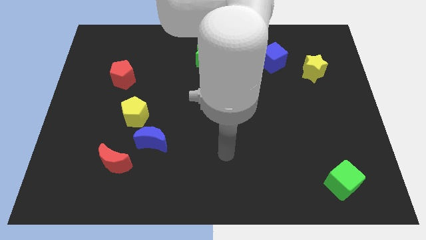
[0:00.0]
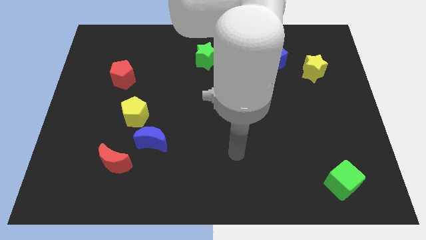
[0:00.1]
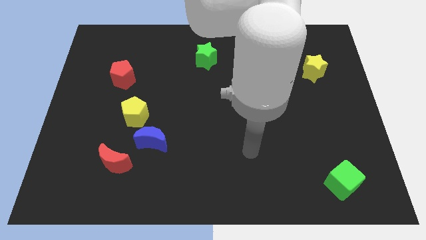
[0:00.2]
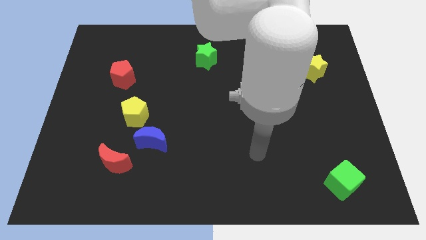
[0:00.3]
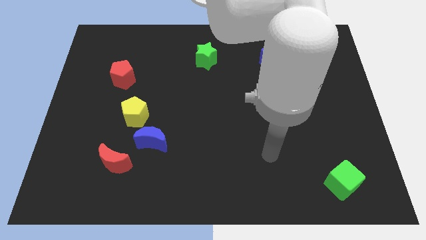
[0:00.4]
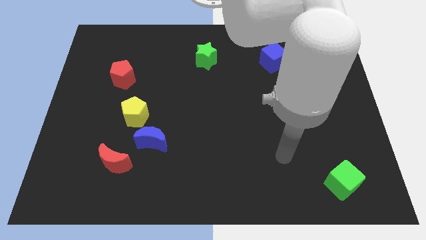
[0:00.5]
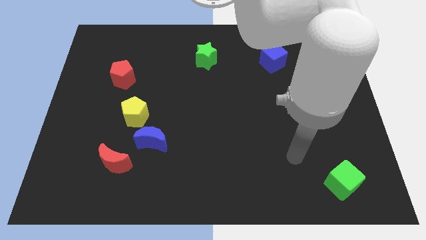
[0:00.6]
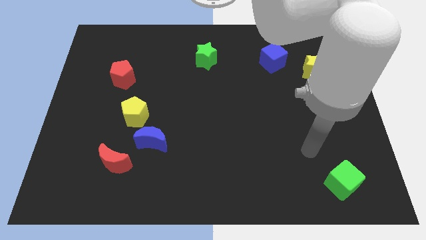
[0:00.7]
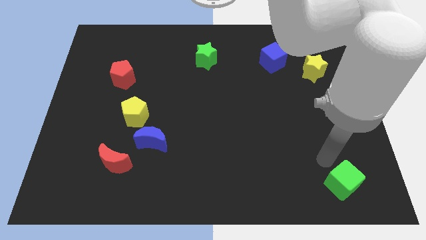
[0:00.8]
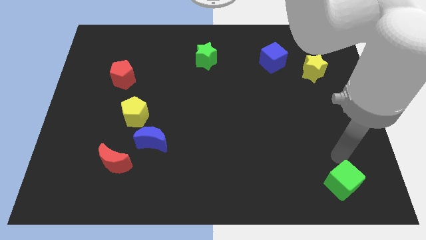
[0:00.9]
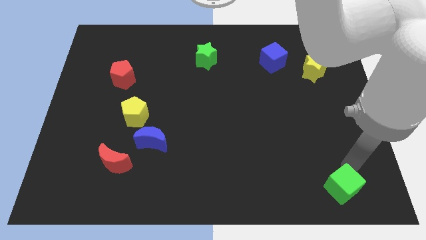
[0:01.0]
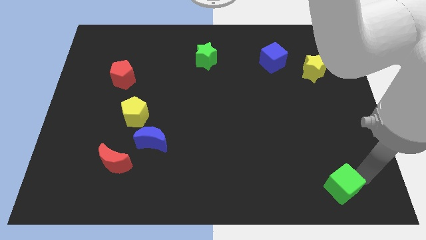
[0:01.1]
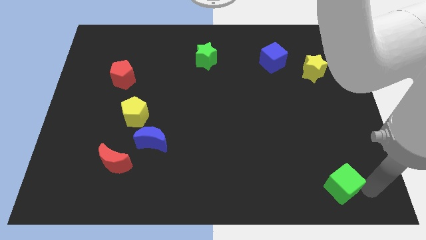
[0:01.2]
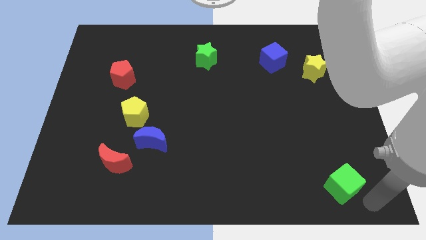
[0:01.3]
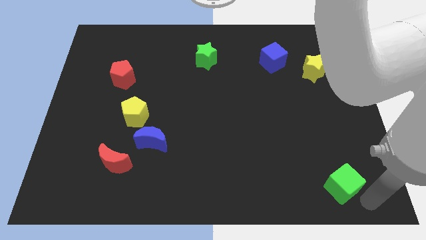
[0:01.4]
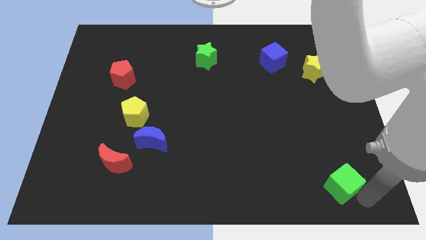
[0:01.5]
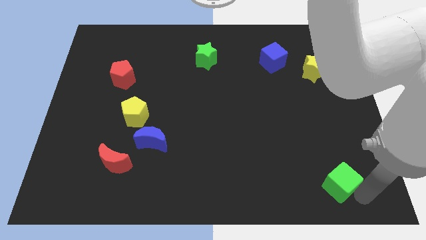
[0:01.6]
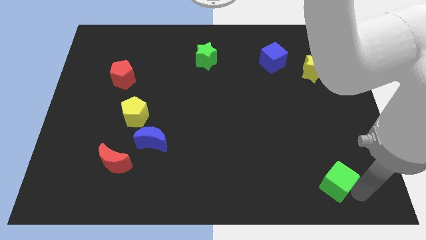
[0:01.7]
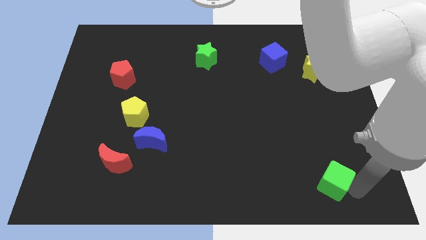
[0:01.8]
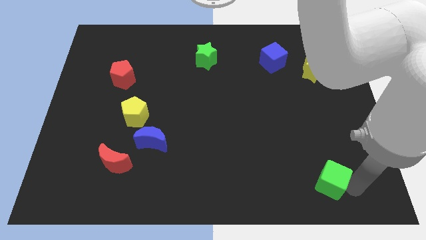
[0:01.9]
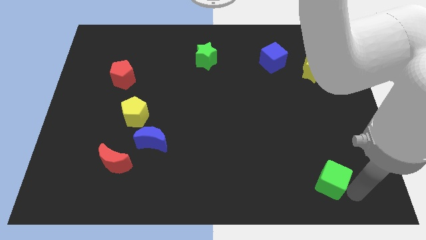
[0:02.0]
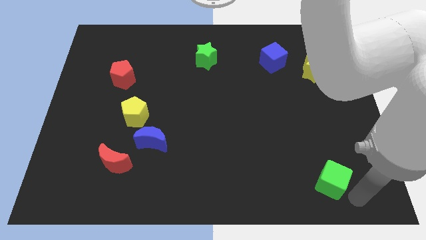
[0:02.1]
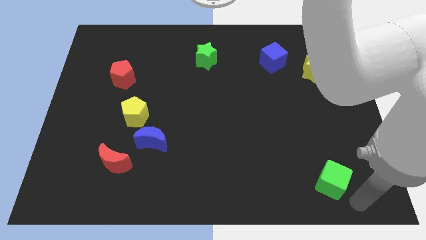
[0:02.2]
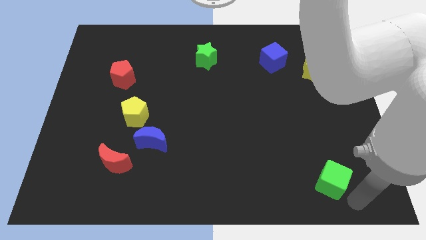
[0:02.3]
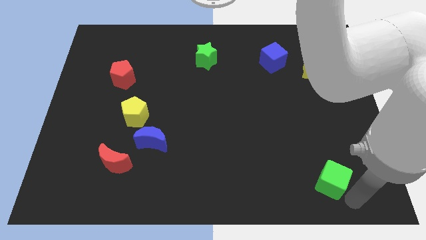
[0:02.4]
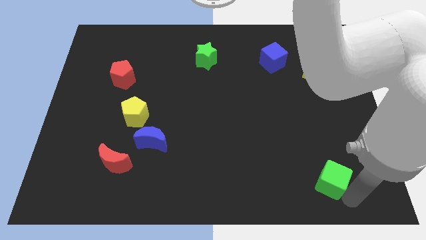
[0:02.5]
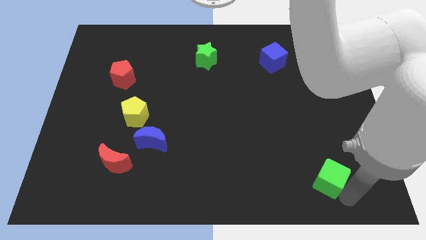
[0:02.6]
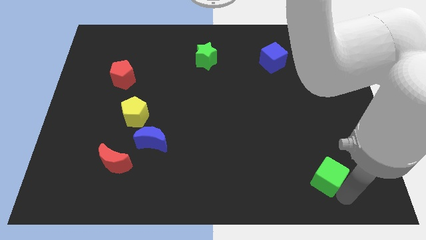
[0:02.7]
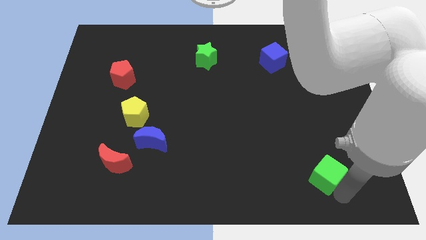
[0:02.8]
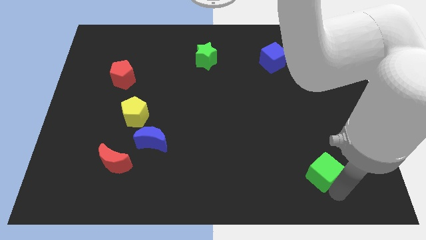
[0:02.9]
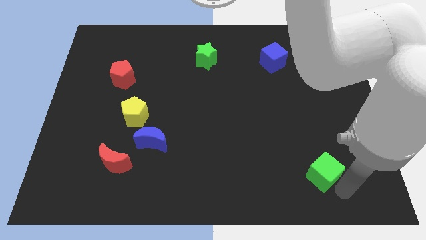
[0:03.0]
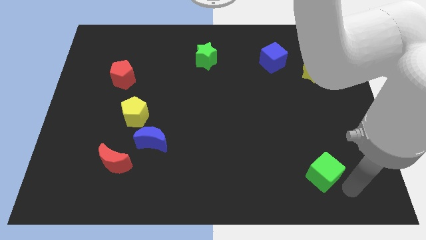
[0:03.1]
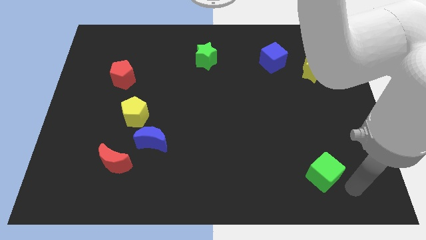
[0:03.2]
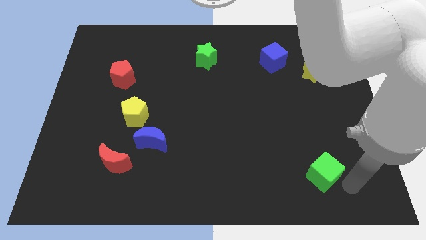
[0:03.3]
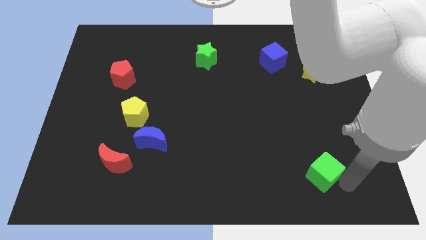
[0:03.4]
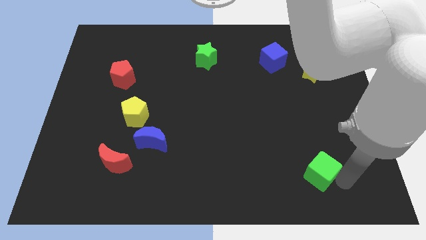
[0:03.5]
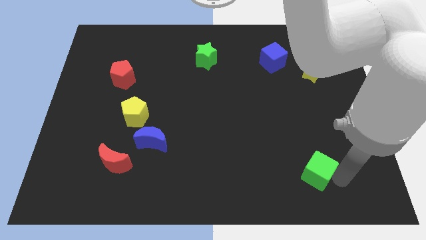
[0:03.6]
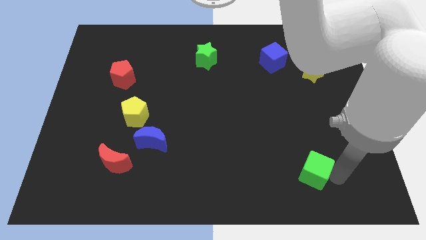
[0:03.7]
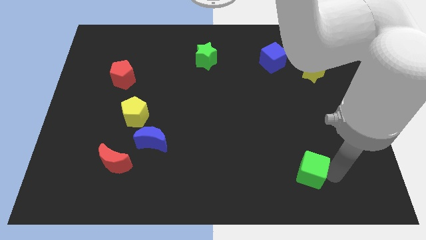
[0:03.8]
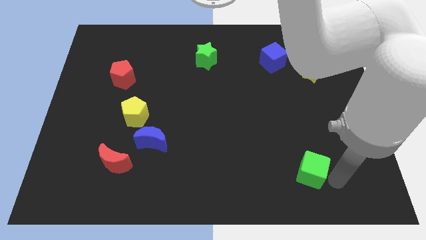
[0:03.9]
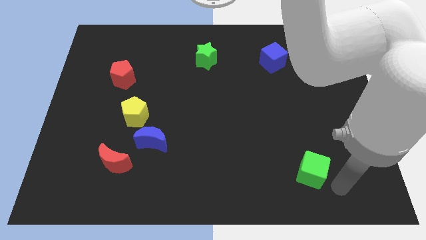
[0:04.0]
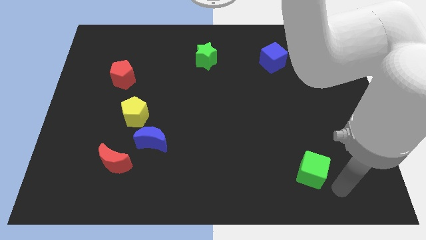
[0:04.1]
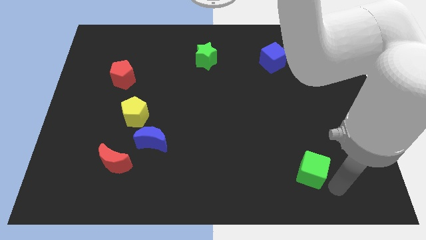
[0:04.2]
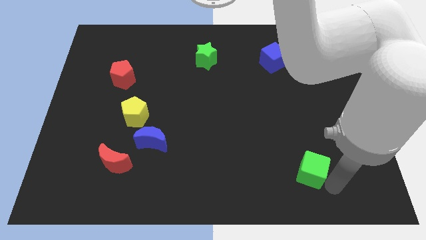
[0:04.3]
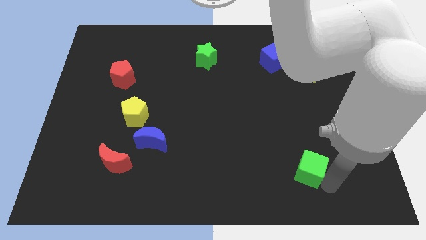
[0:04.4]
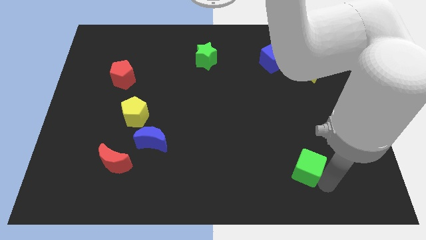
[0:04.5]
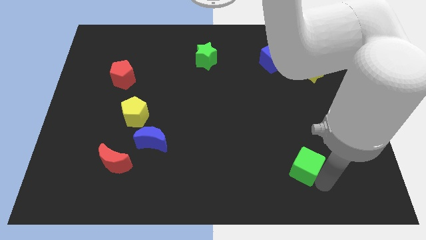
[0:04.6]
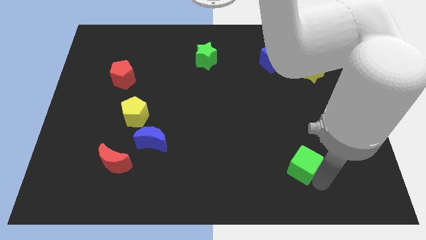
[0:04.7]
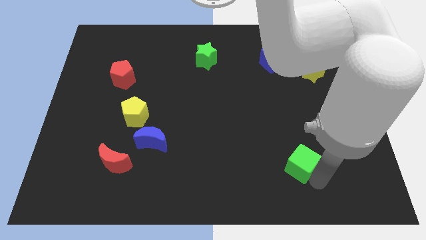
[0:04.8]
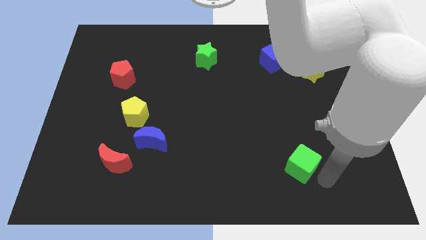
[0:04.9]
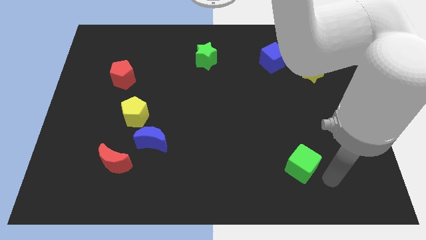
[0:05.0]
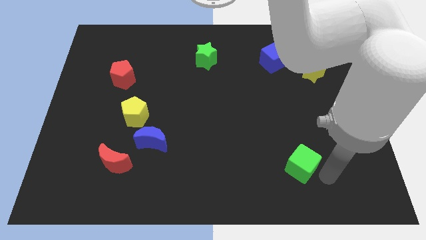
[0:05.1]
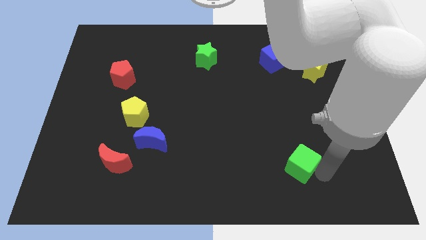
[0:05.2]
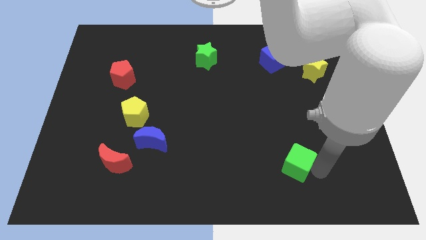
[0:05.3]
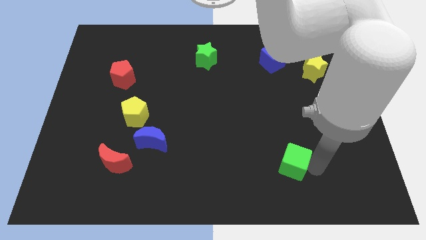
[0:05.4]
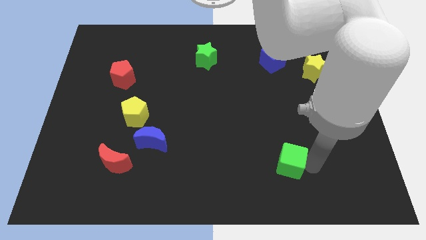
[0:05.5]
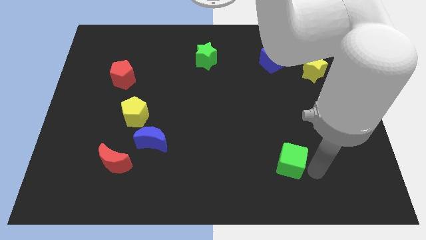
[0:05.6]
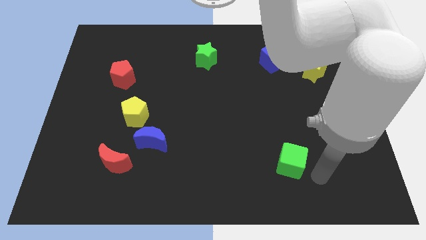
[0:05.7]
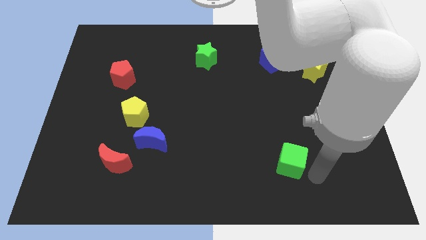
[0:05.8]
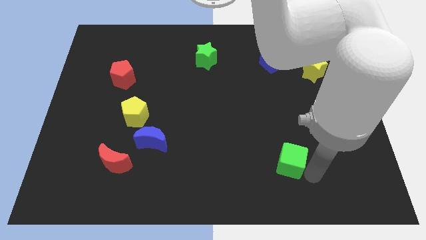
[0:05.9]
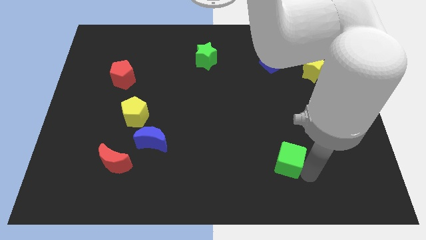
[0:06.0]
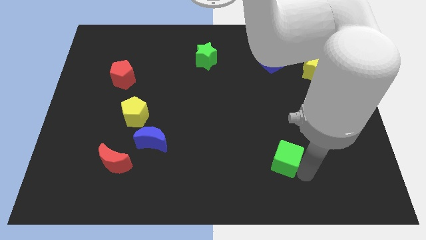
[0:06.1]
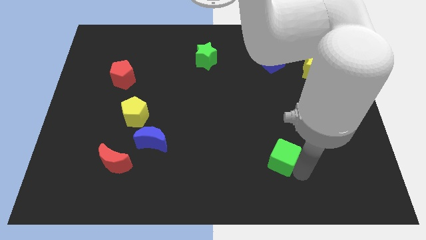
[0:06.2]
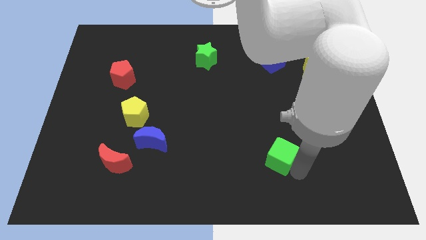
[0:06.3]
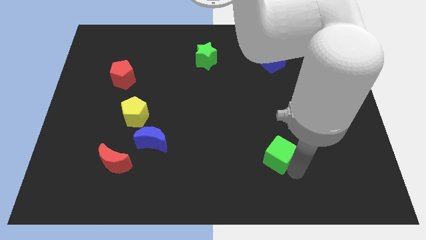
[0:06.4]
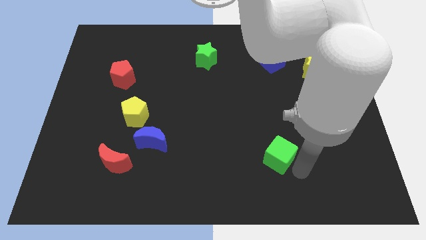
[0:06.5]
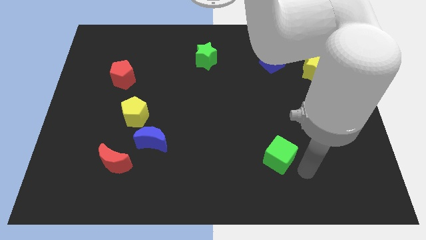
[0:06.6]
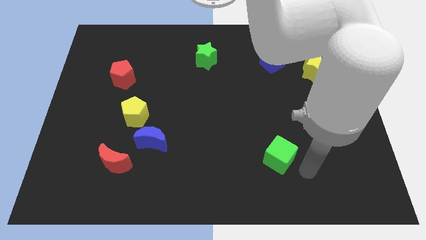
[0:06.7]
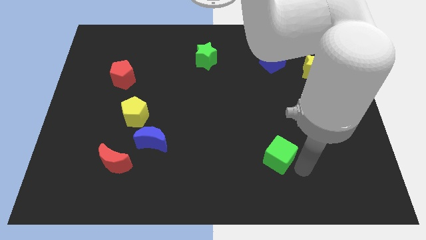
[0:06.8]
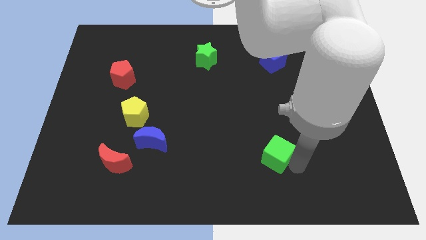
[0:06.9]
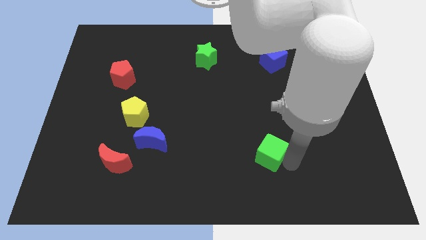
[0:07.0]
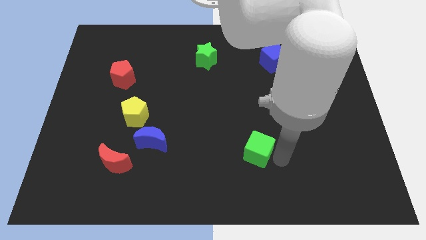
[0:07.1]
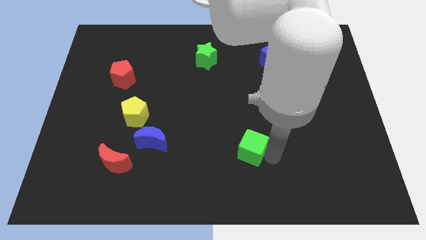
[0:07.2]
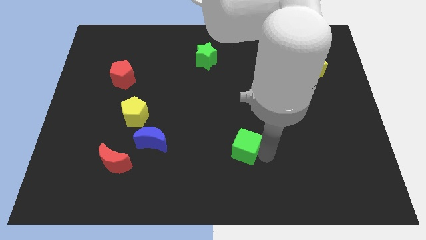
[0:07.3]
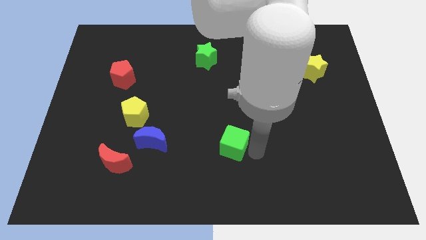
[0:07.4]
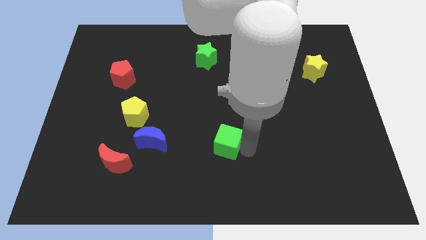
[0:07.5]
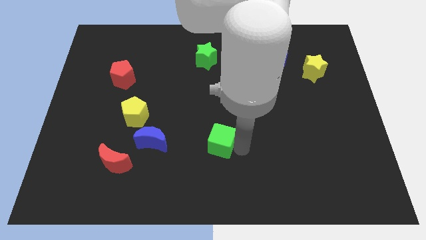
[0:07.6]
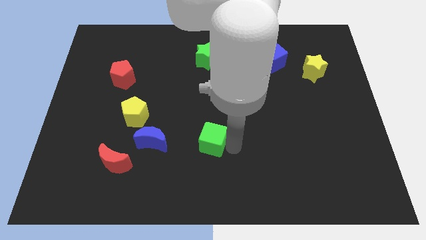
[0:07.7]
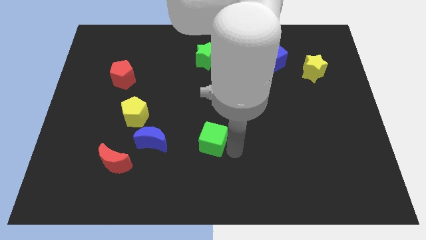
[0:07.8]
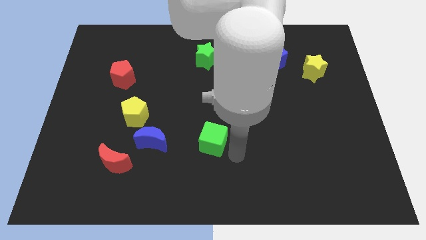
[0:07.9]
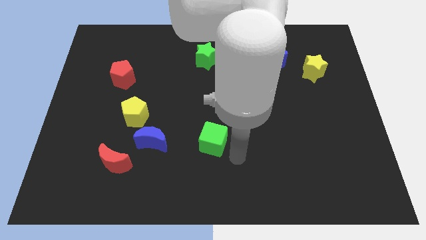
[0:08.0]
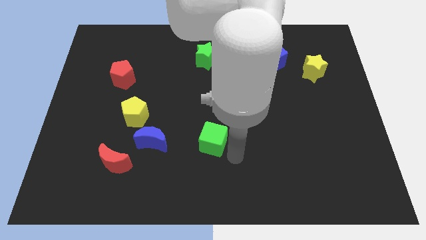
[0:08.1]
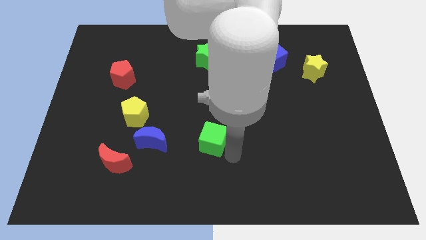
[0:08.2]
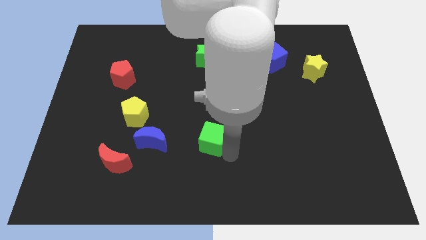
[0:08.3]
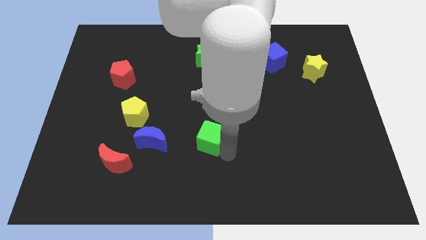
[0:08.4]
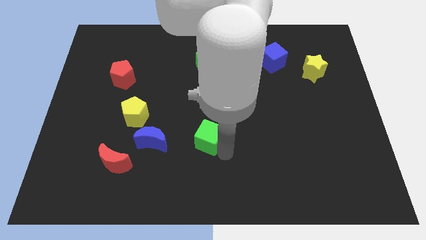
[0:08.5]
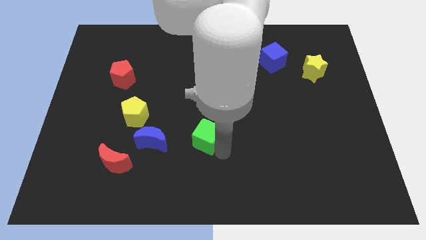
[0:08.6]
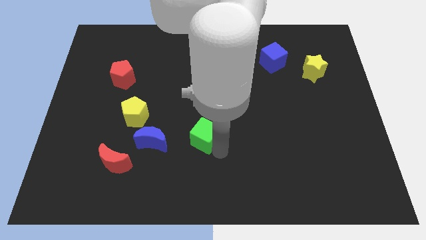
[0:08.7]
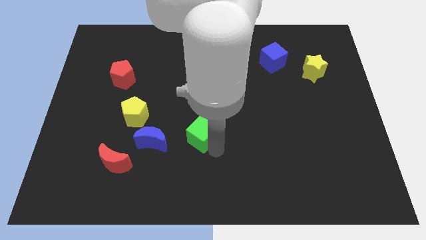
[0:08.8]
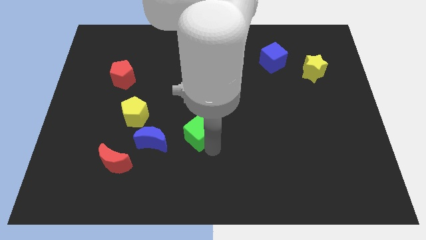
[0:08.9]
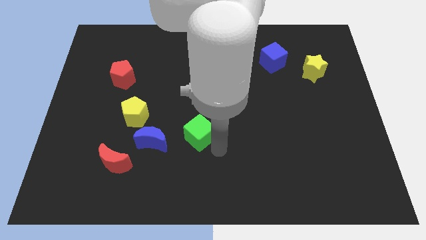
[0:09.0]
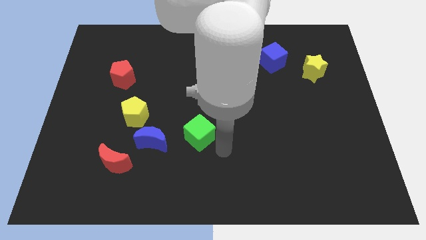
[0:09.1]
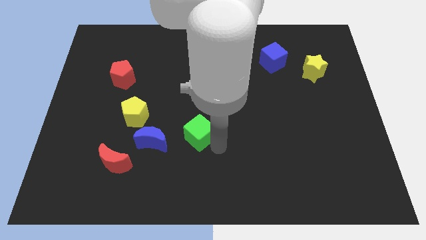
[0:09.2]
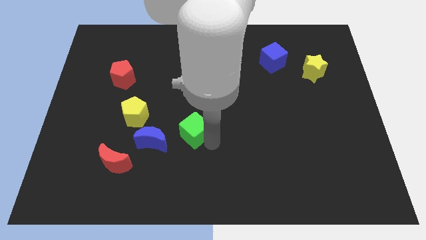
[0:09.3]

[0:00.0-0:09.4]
slide the green cube to the top right side of the blue moon
